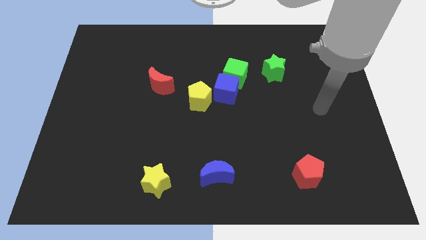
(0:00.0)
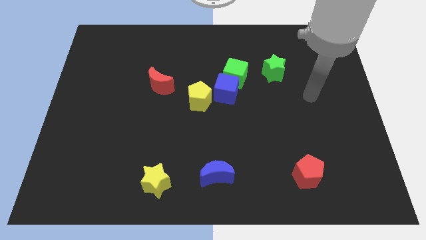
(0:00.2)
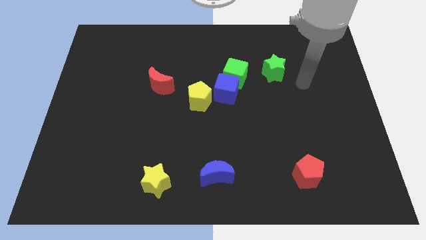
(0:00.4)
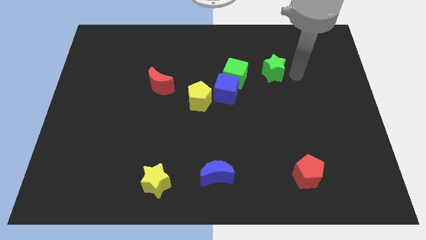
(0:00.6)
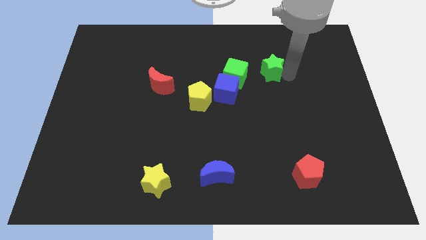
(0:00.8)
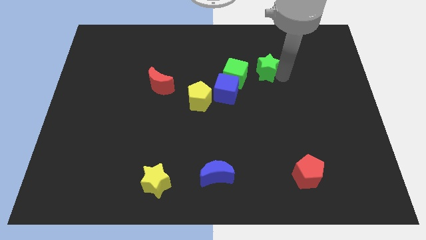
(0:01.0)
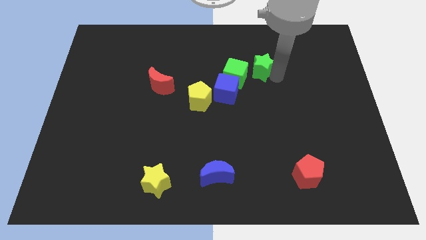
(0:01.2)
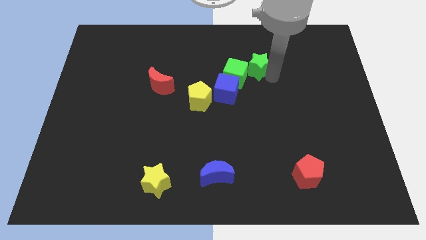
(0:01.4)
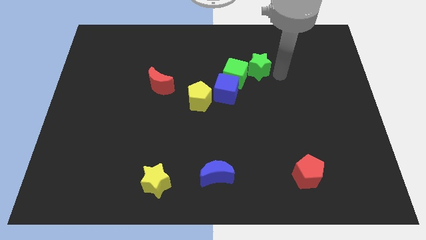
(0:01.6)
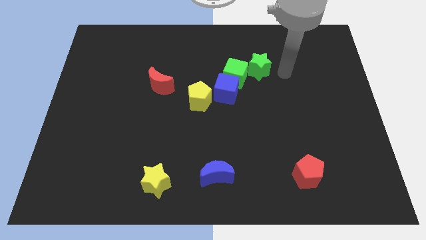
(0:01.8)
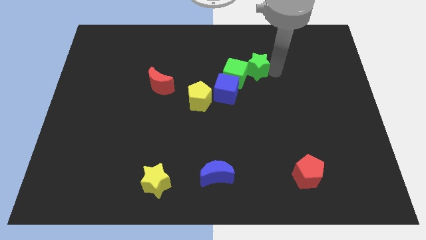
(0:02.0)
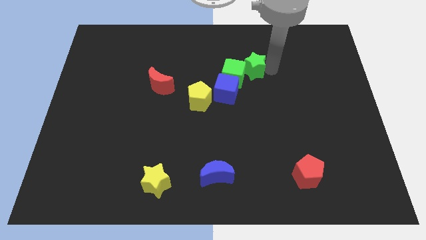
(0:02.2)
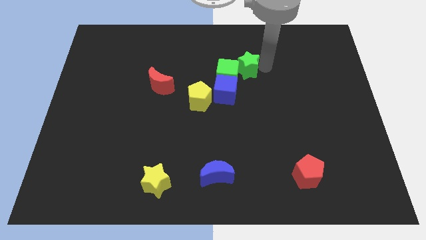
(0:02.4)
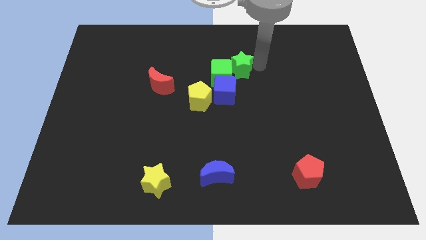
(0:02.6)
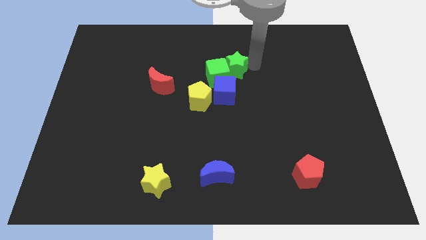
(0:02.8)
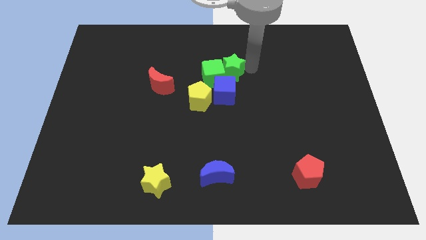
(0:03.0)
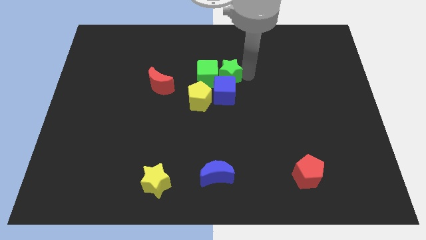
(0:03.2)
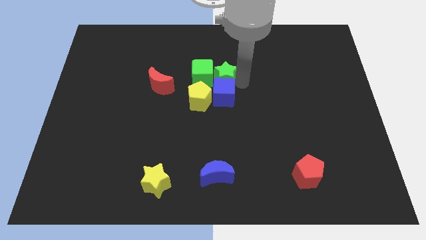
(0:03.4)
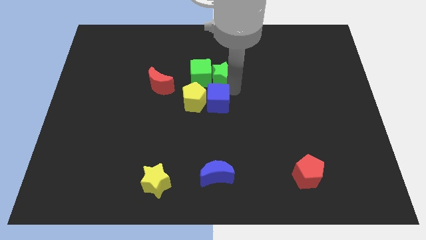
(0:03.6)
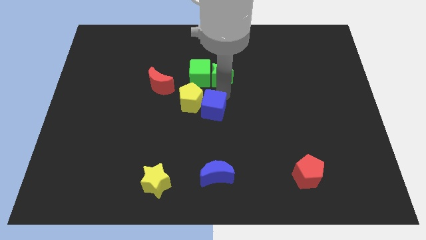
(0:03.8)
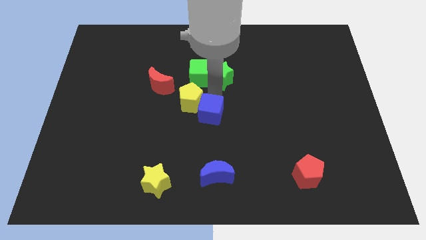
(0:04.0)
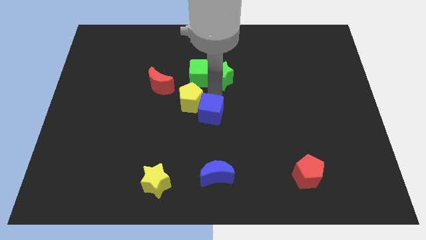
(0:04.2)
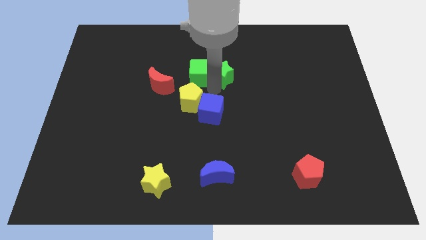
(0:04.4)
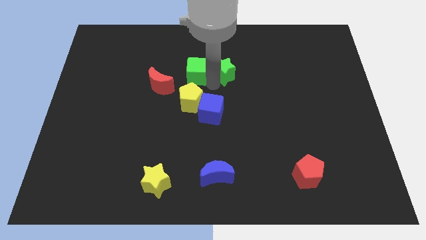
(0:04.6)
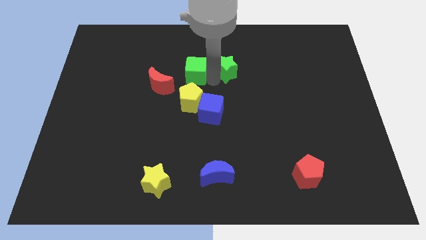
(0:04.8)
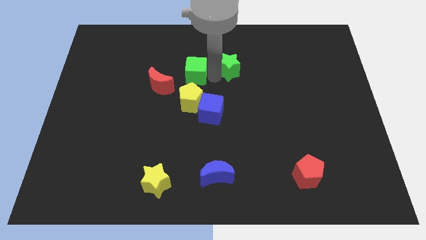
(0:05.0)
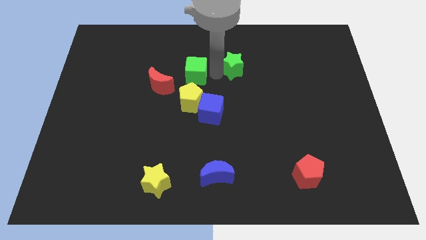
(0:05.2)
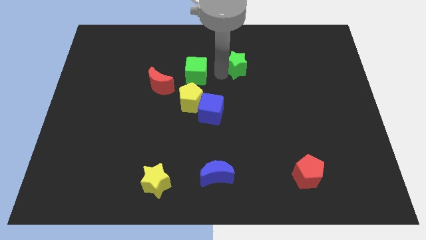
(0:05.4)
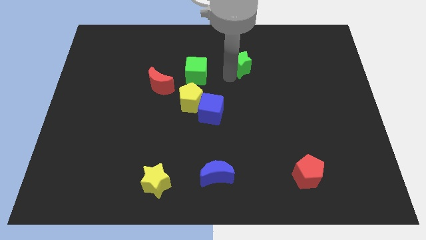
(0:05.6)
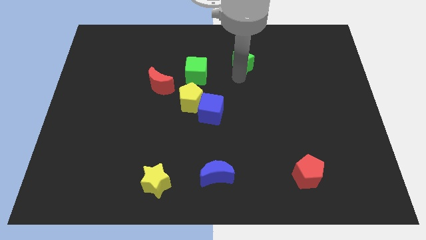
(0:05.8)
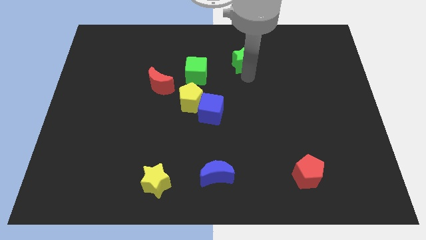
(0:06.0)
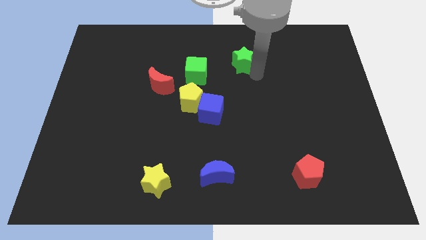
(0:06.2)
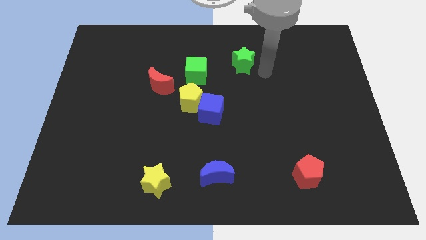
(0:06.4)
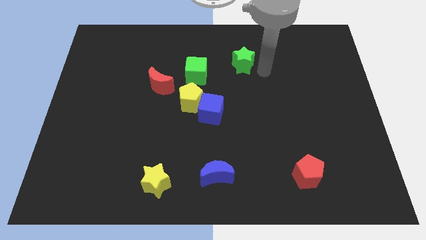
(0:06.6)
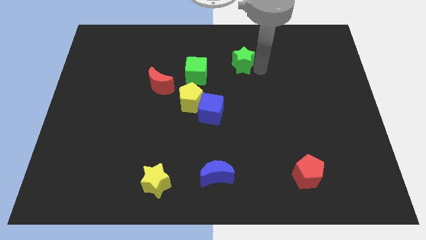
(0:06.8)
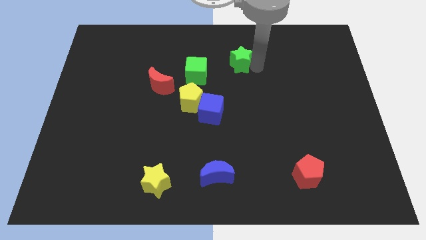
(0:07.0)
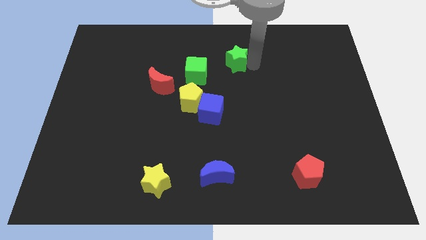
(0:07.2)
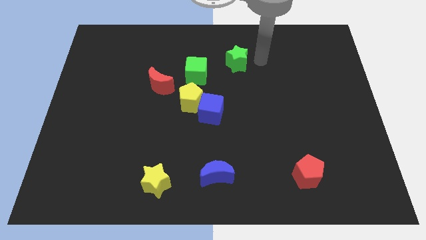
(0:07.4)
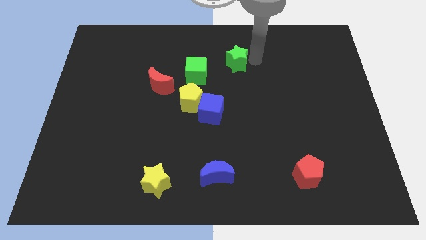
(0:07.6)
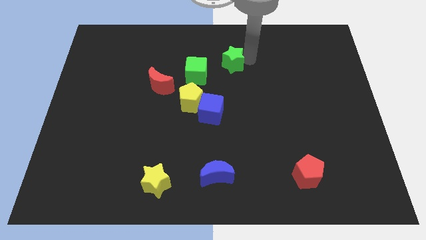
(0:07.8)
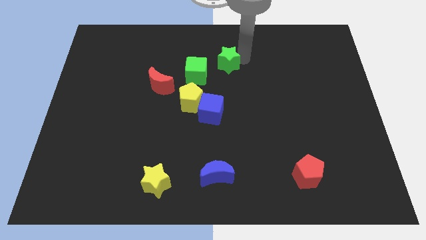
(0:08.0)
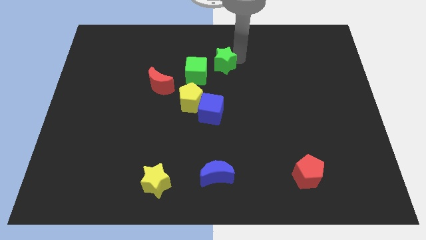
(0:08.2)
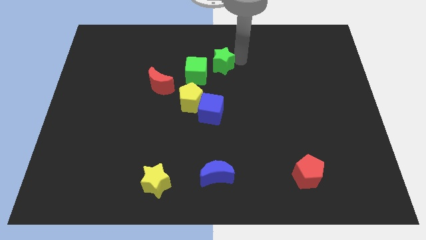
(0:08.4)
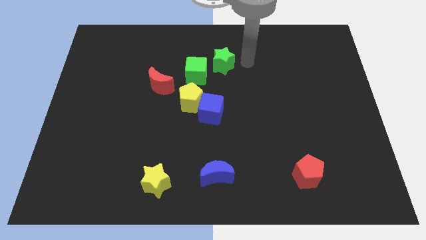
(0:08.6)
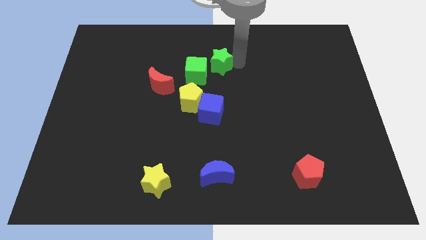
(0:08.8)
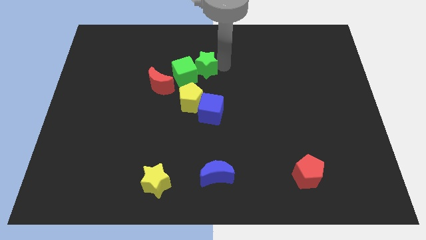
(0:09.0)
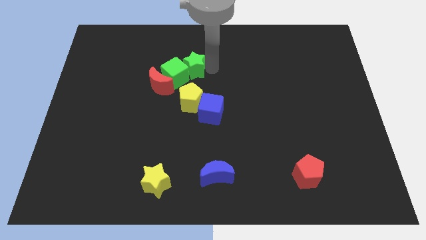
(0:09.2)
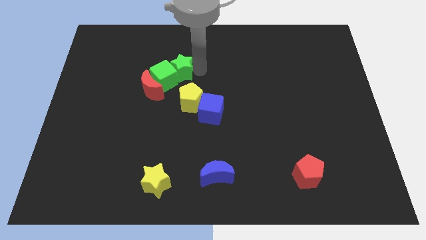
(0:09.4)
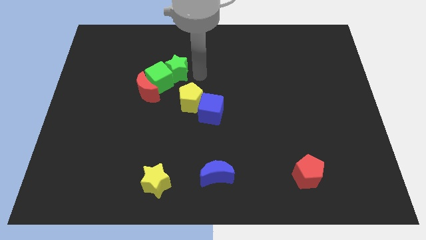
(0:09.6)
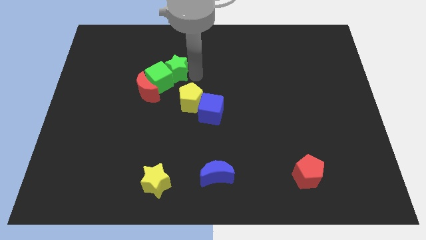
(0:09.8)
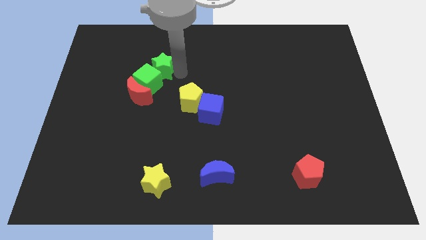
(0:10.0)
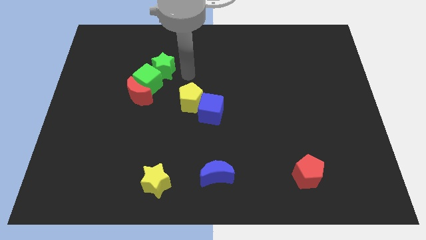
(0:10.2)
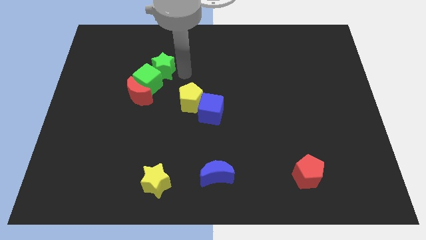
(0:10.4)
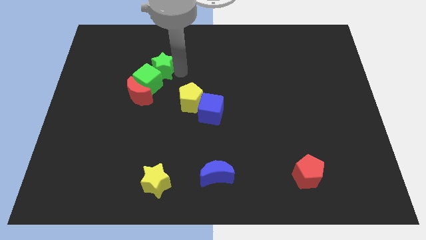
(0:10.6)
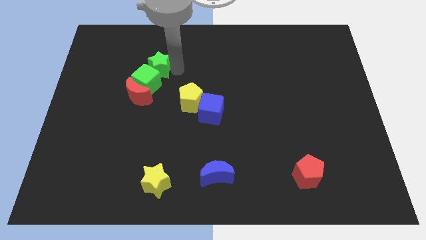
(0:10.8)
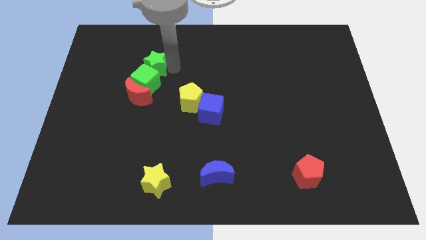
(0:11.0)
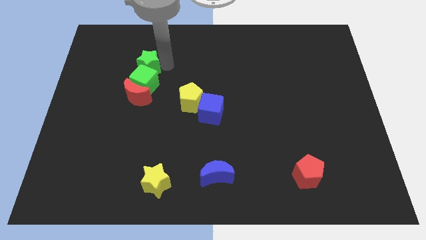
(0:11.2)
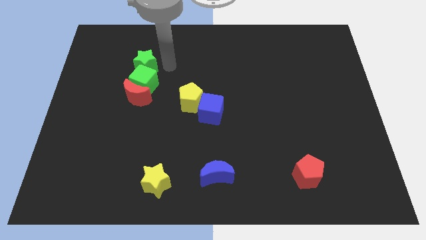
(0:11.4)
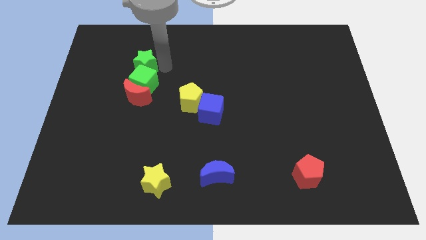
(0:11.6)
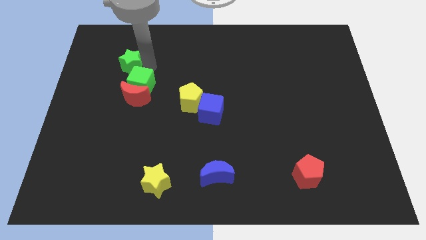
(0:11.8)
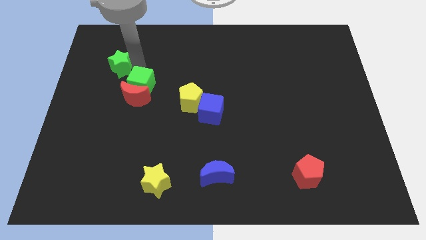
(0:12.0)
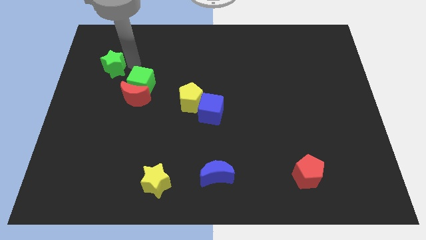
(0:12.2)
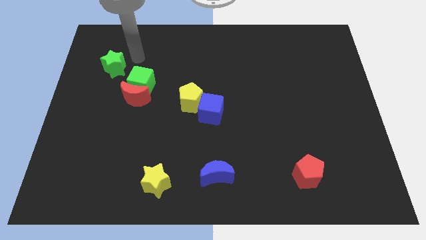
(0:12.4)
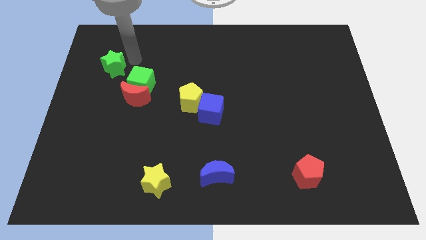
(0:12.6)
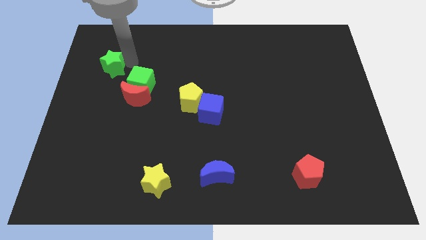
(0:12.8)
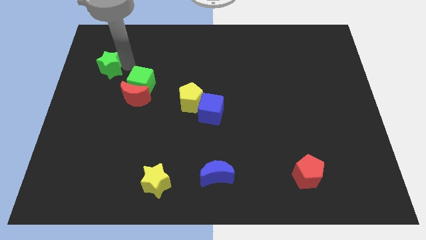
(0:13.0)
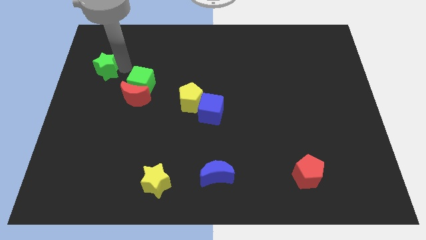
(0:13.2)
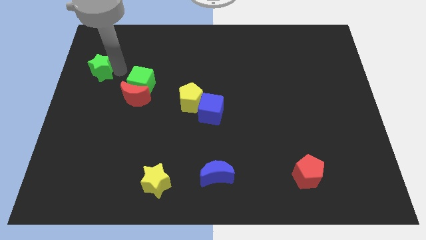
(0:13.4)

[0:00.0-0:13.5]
push the green star to the center left
